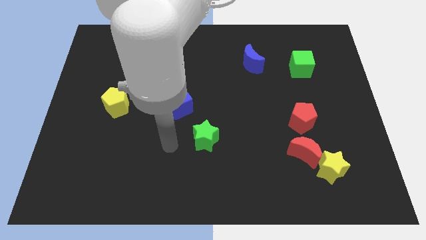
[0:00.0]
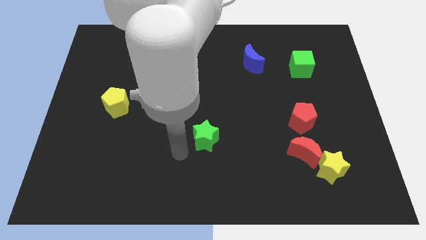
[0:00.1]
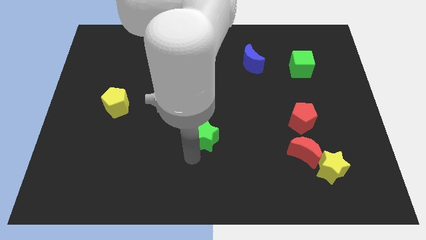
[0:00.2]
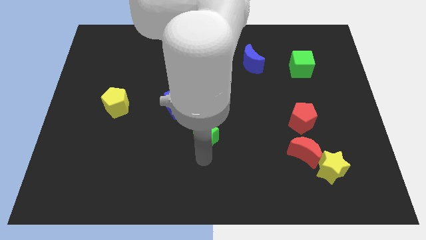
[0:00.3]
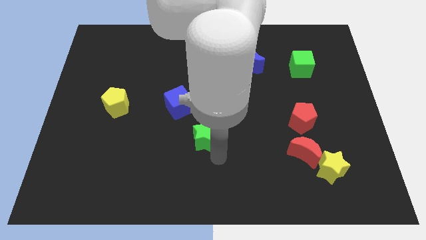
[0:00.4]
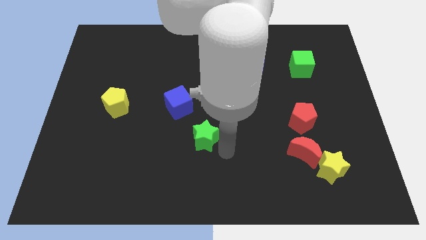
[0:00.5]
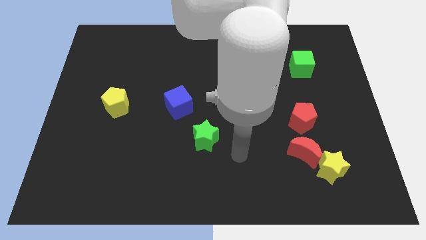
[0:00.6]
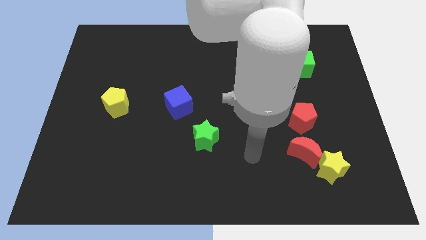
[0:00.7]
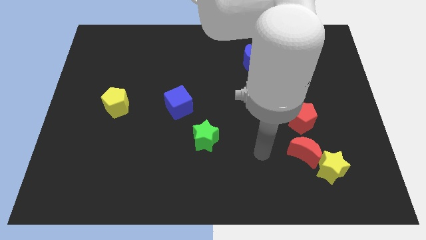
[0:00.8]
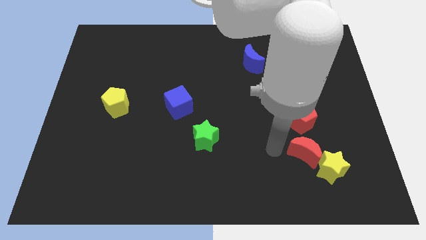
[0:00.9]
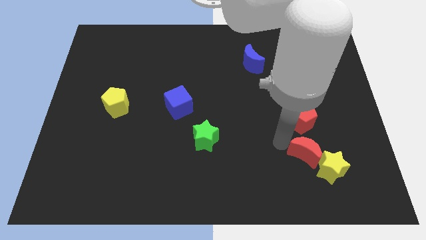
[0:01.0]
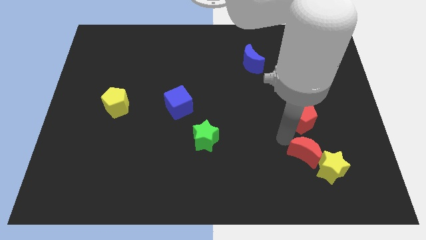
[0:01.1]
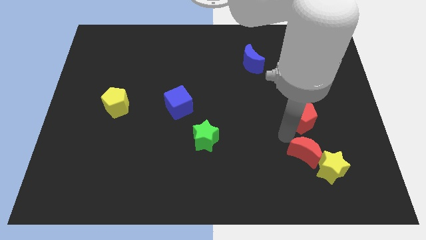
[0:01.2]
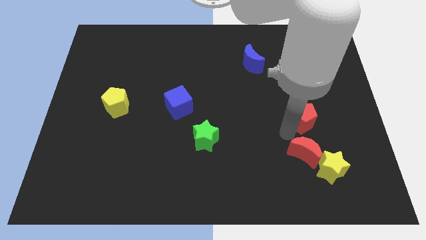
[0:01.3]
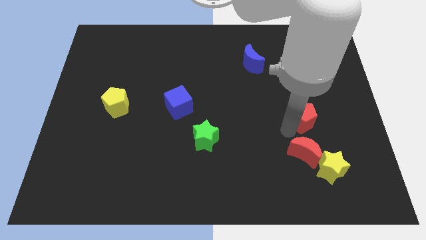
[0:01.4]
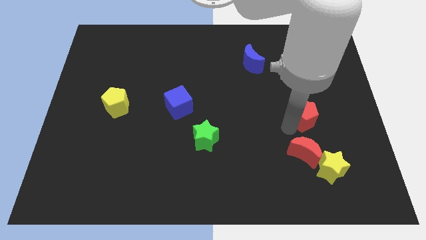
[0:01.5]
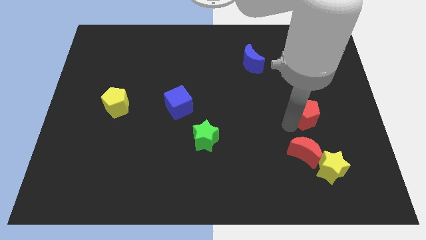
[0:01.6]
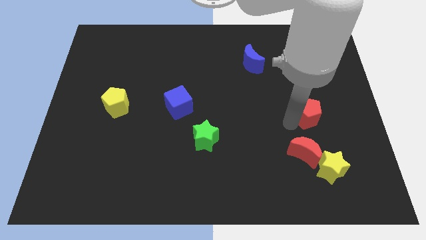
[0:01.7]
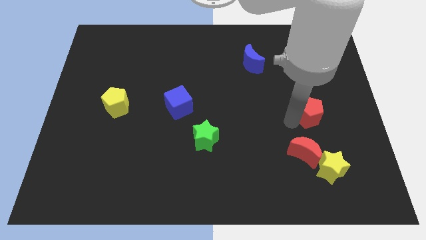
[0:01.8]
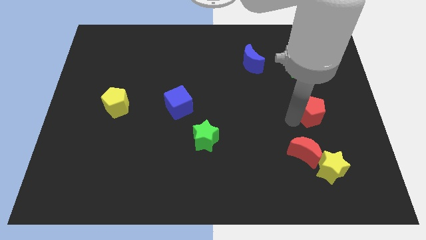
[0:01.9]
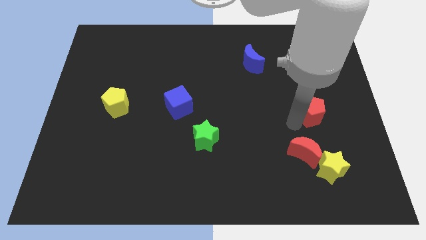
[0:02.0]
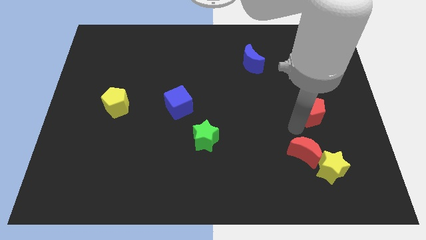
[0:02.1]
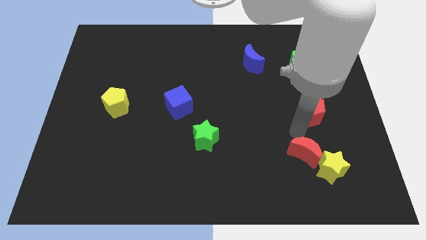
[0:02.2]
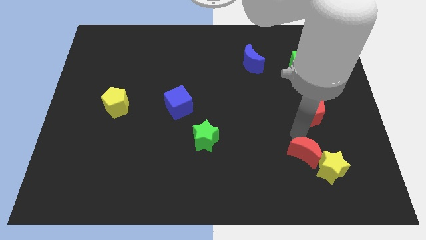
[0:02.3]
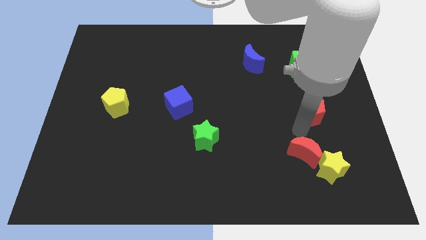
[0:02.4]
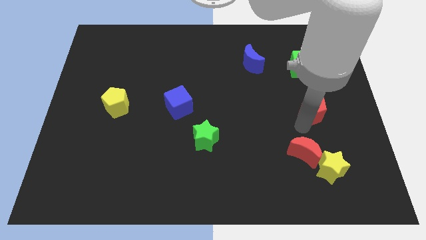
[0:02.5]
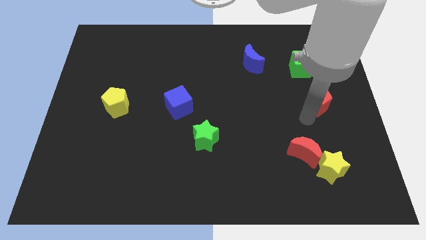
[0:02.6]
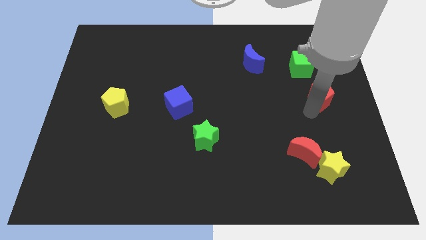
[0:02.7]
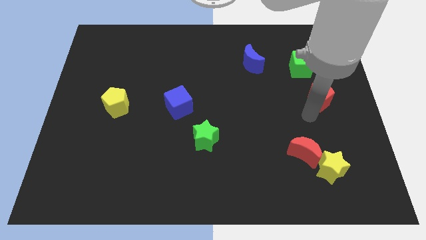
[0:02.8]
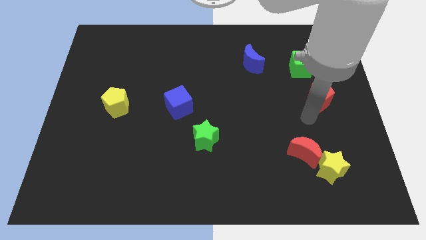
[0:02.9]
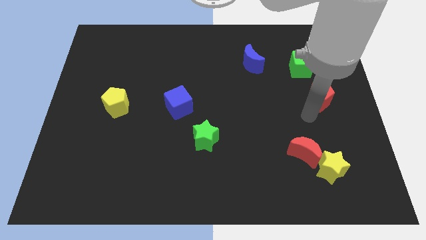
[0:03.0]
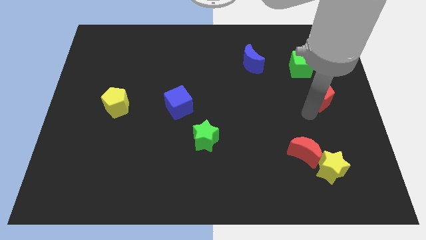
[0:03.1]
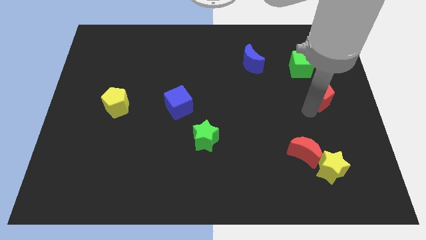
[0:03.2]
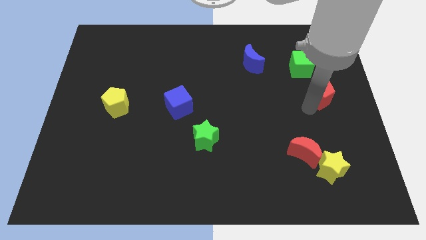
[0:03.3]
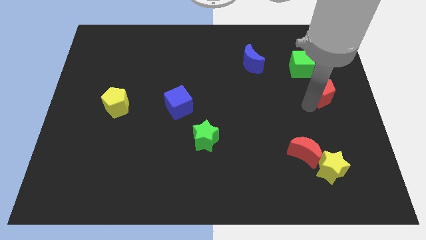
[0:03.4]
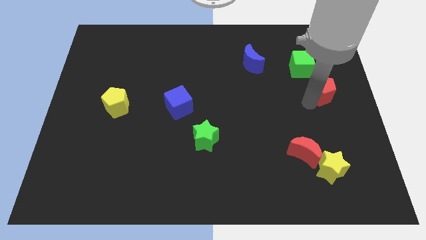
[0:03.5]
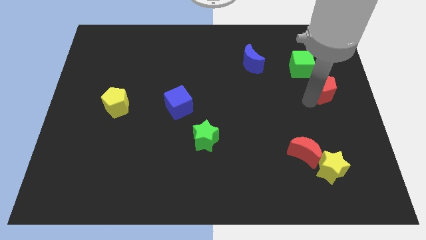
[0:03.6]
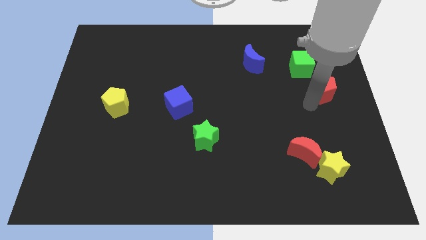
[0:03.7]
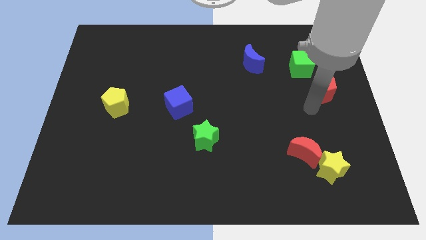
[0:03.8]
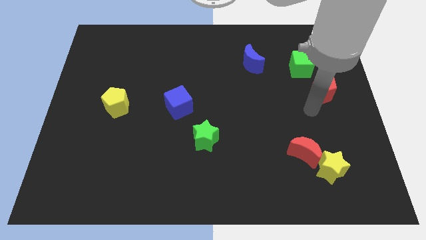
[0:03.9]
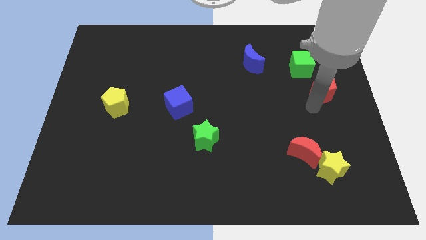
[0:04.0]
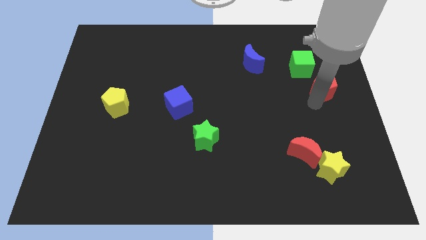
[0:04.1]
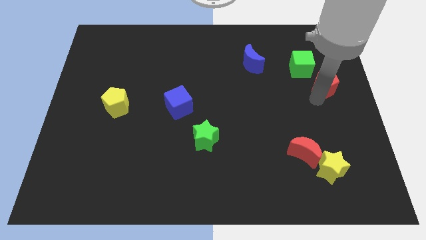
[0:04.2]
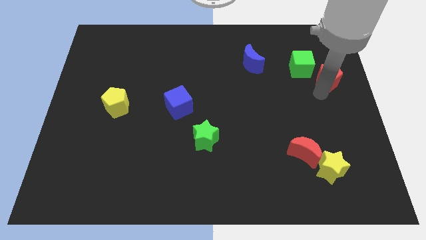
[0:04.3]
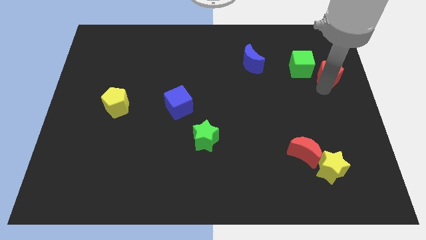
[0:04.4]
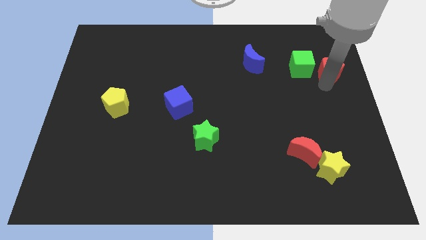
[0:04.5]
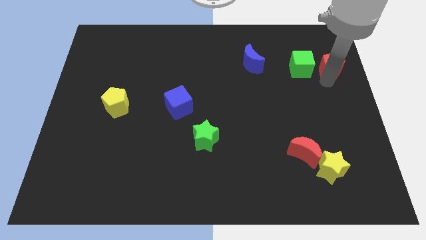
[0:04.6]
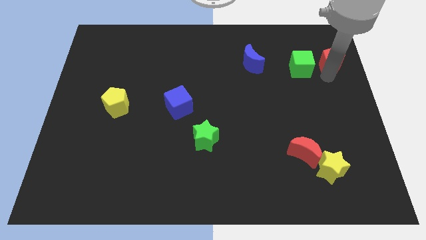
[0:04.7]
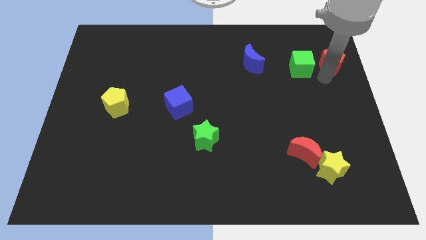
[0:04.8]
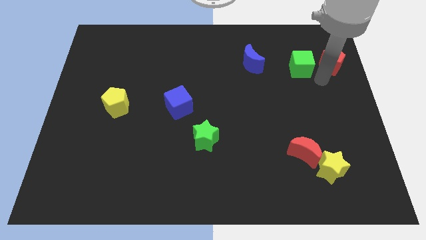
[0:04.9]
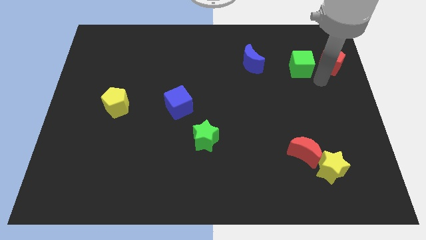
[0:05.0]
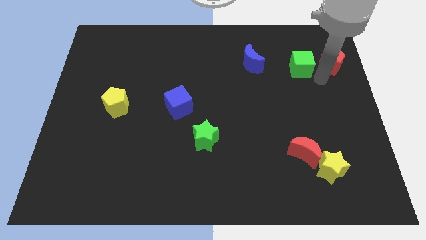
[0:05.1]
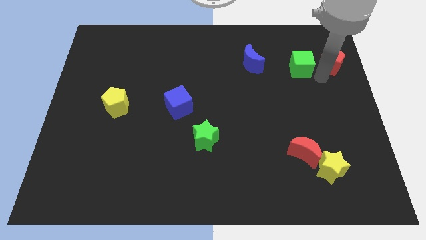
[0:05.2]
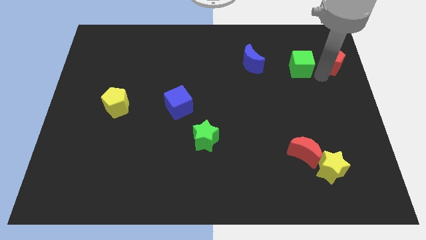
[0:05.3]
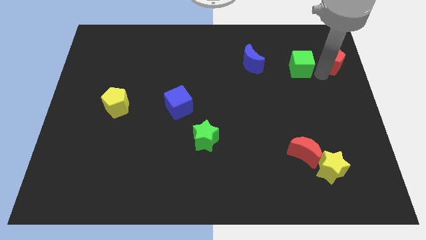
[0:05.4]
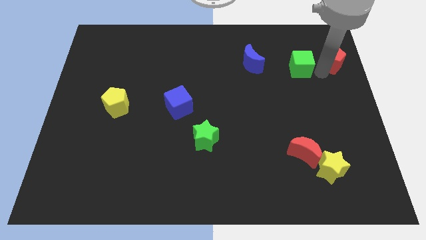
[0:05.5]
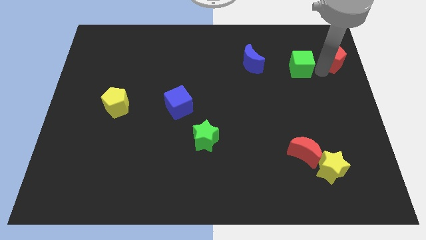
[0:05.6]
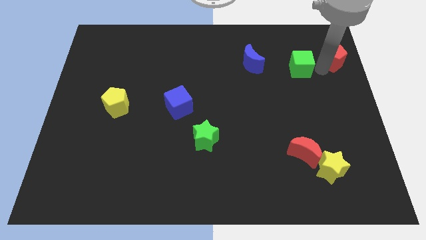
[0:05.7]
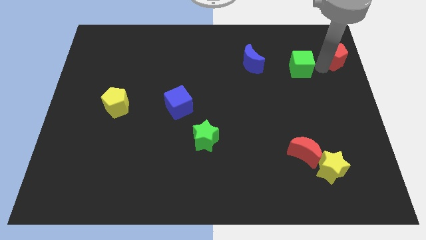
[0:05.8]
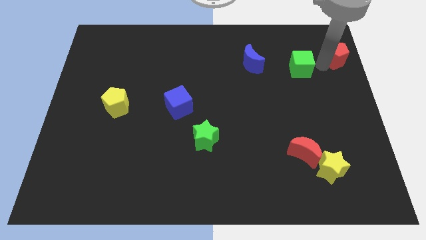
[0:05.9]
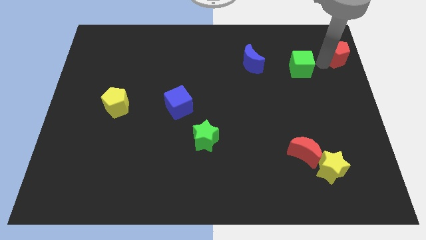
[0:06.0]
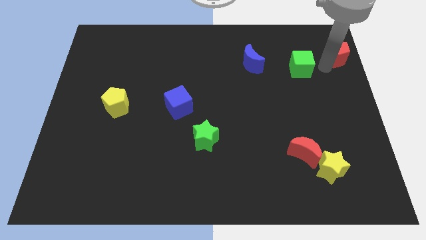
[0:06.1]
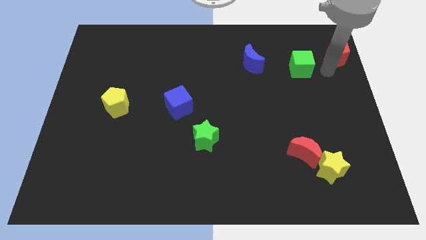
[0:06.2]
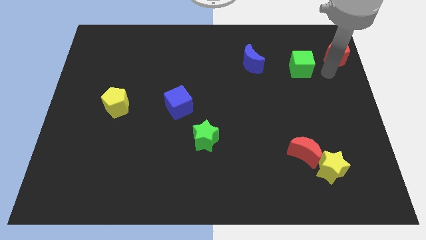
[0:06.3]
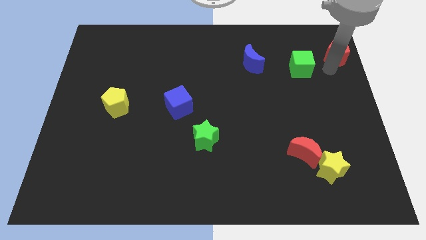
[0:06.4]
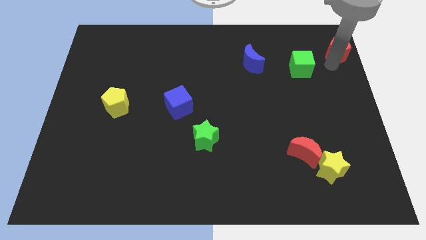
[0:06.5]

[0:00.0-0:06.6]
put the red pentagon to the top right

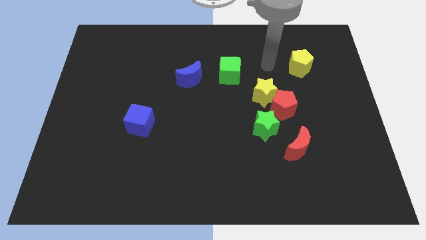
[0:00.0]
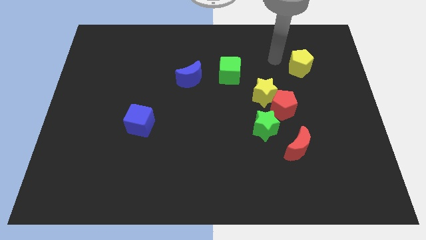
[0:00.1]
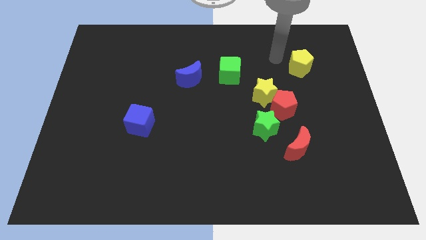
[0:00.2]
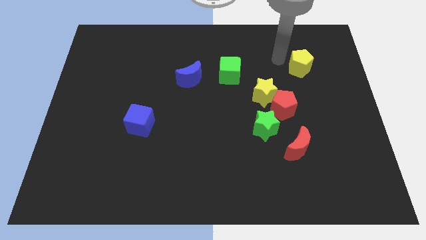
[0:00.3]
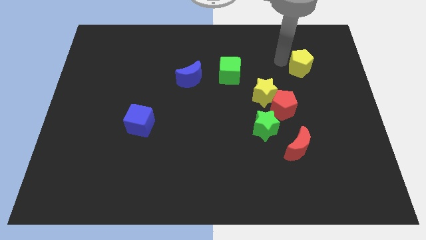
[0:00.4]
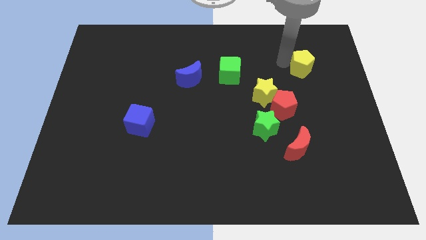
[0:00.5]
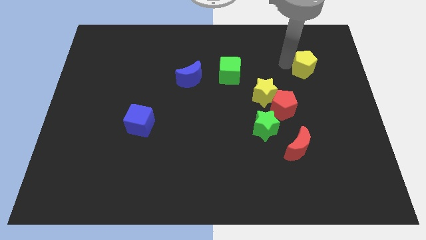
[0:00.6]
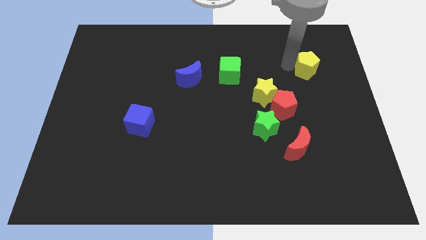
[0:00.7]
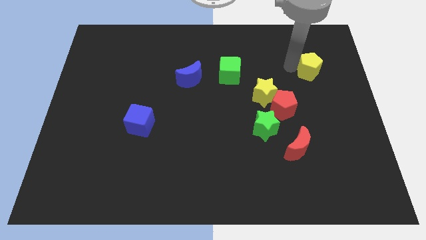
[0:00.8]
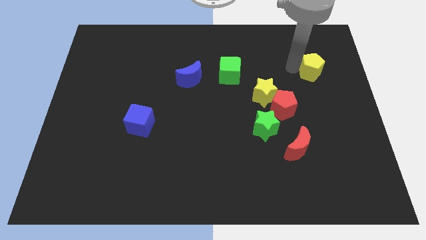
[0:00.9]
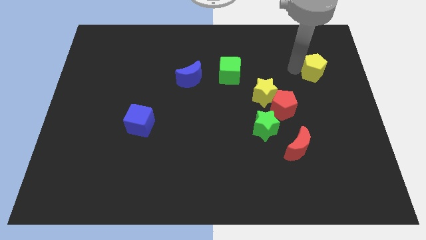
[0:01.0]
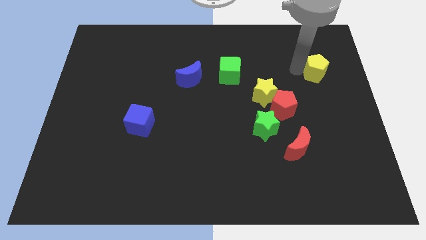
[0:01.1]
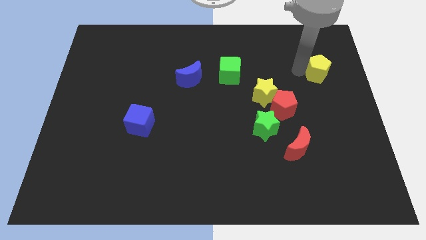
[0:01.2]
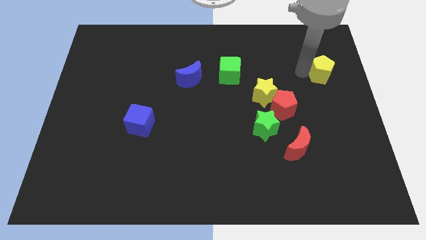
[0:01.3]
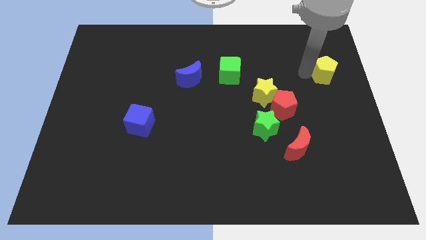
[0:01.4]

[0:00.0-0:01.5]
push the yellow pentagon to the right side
